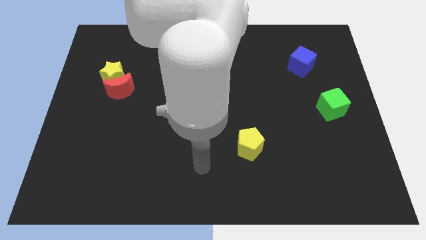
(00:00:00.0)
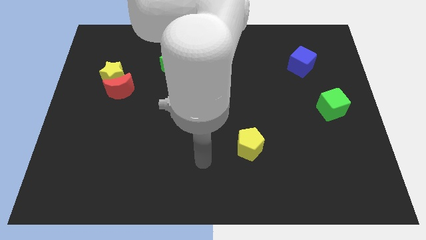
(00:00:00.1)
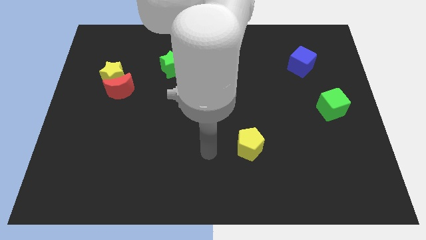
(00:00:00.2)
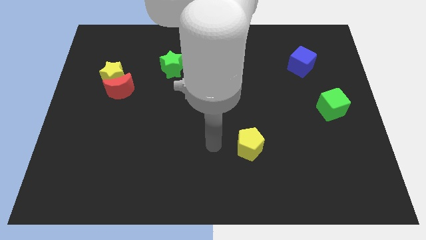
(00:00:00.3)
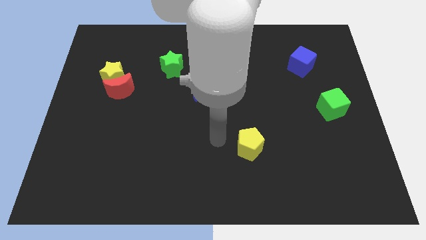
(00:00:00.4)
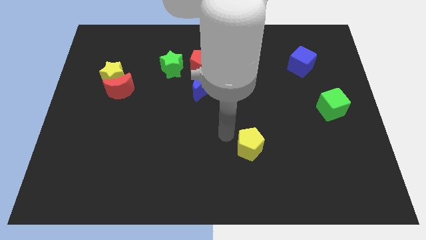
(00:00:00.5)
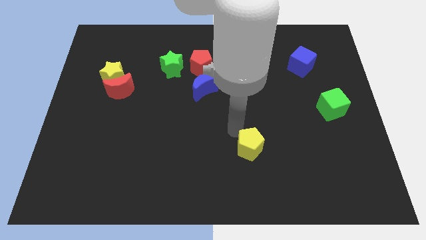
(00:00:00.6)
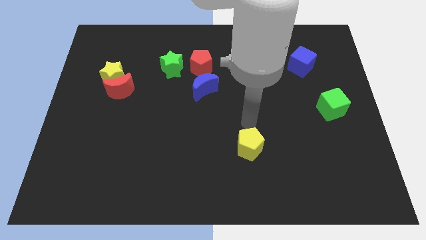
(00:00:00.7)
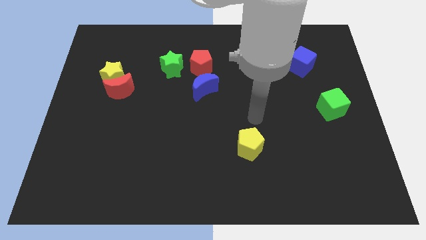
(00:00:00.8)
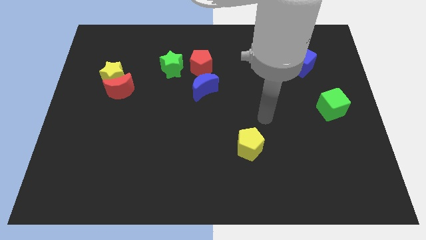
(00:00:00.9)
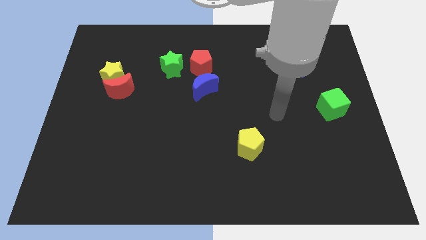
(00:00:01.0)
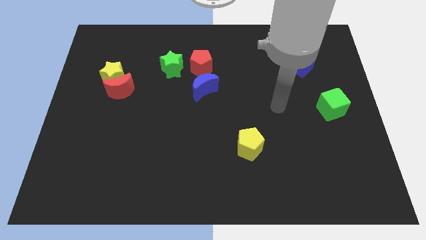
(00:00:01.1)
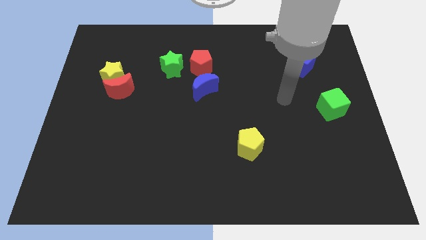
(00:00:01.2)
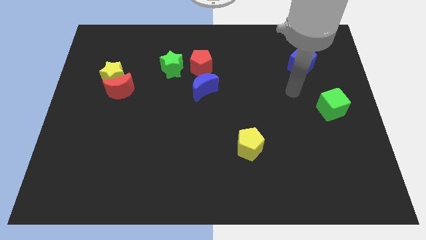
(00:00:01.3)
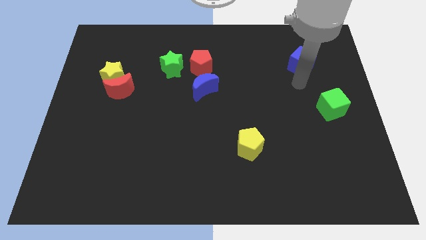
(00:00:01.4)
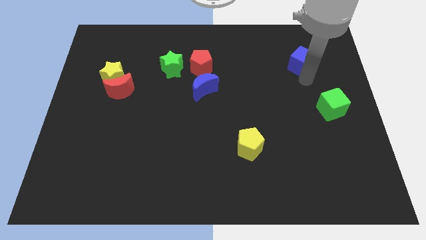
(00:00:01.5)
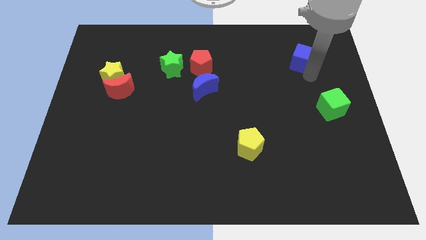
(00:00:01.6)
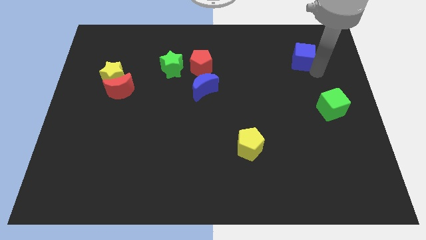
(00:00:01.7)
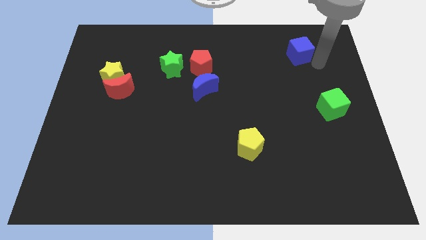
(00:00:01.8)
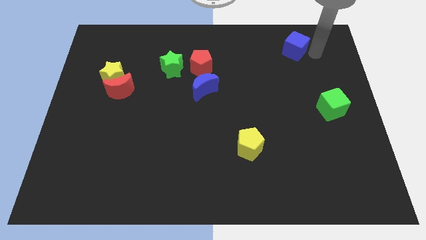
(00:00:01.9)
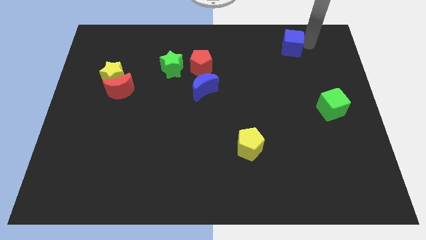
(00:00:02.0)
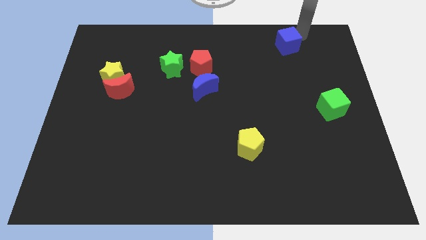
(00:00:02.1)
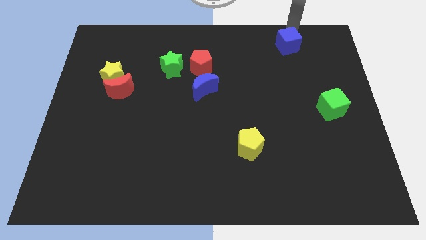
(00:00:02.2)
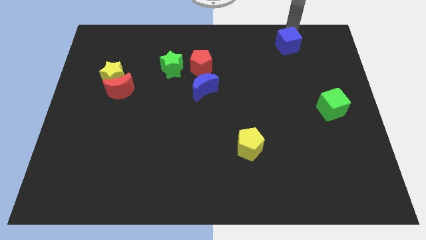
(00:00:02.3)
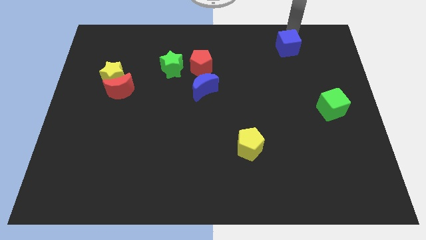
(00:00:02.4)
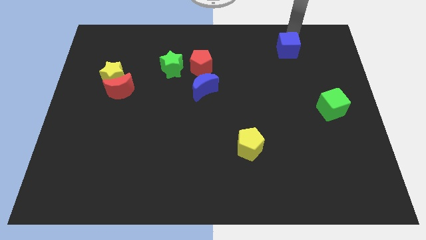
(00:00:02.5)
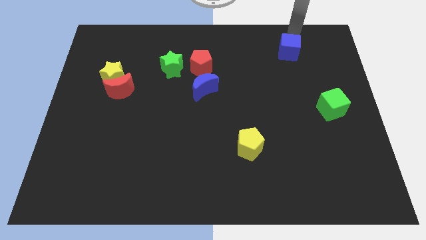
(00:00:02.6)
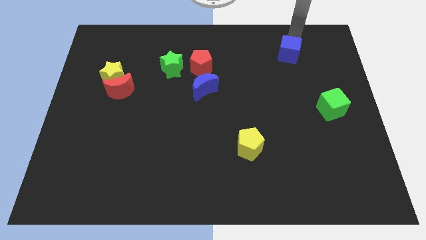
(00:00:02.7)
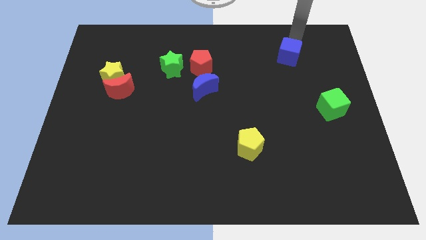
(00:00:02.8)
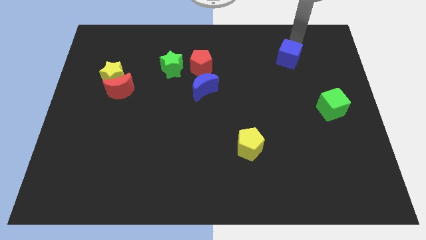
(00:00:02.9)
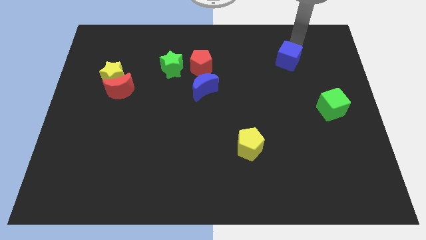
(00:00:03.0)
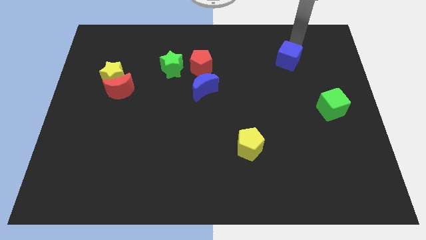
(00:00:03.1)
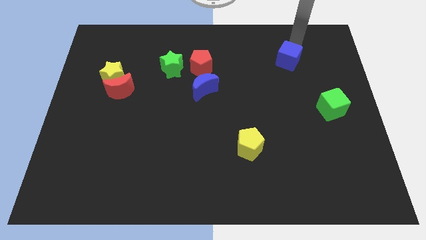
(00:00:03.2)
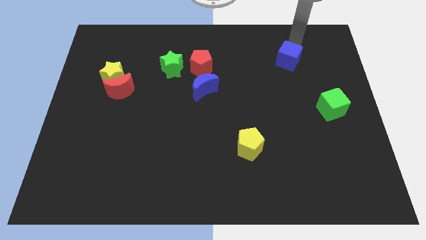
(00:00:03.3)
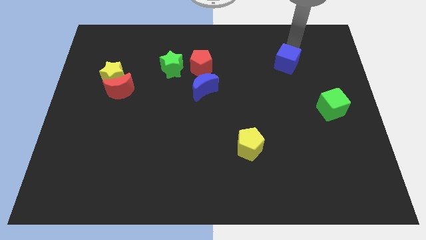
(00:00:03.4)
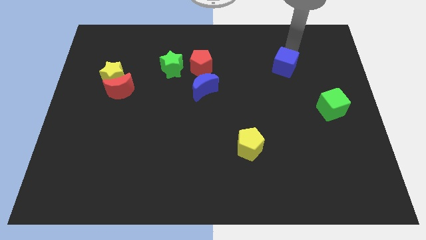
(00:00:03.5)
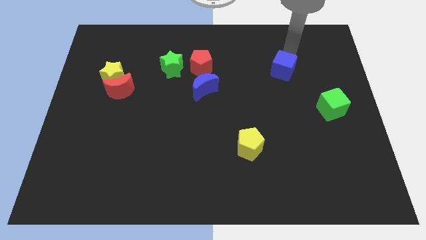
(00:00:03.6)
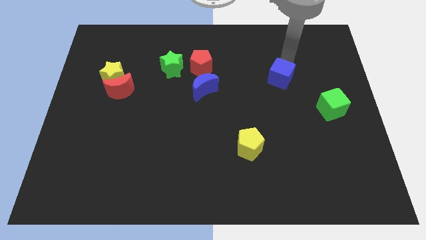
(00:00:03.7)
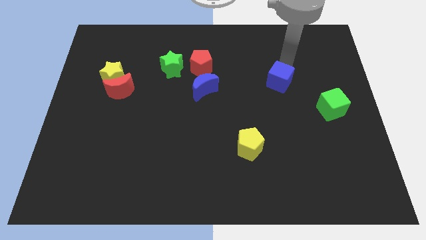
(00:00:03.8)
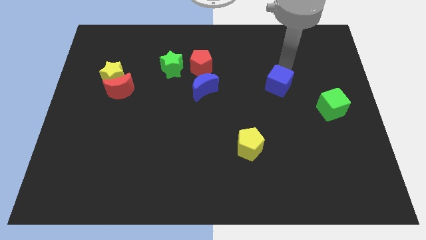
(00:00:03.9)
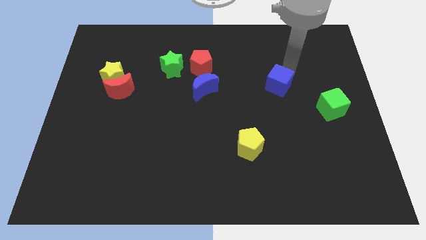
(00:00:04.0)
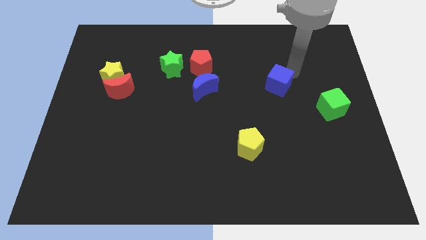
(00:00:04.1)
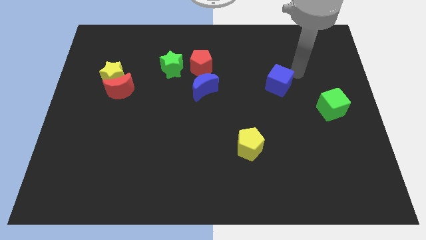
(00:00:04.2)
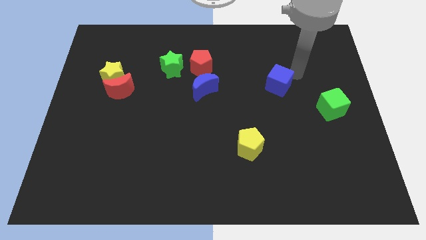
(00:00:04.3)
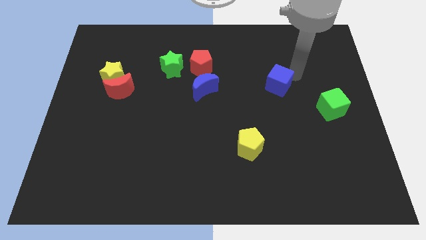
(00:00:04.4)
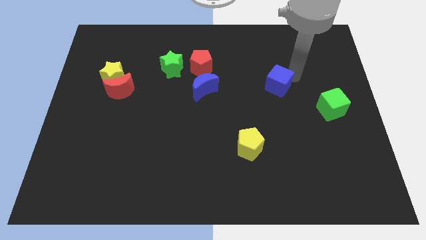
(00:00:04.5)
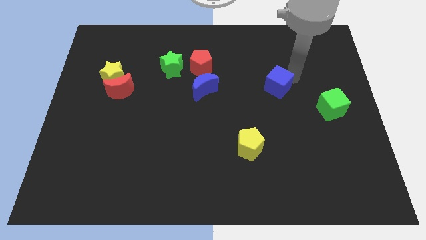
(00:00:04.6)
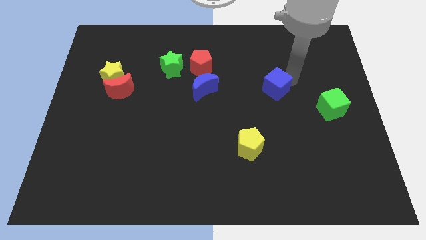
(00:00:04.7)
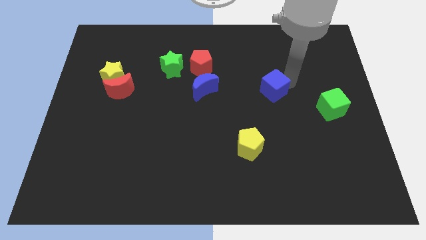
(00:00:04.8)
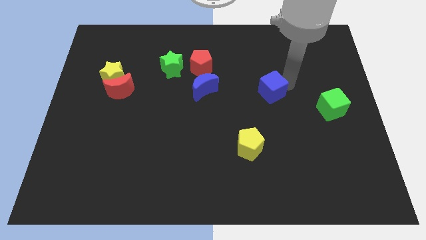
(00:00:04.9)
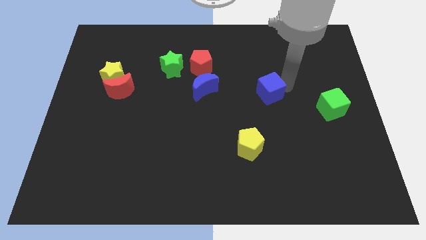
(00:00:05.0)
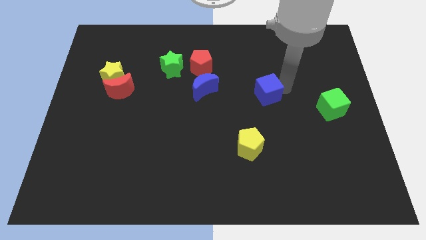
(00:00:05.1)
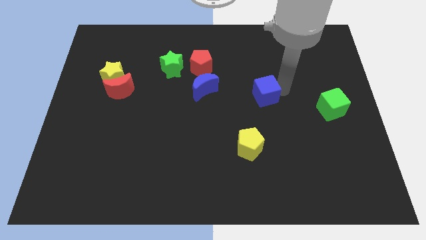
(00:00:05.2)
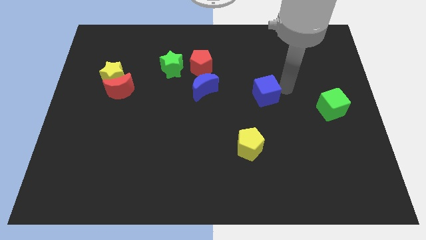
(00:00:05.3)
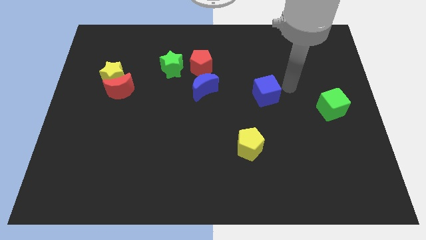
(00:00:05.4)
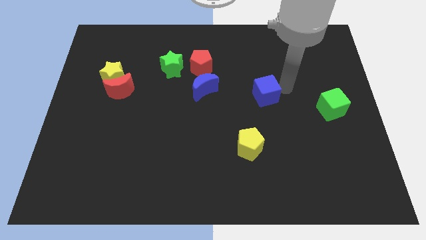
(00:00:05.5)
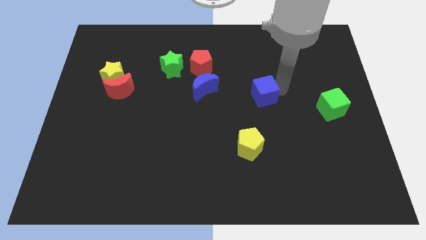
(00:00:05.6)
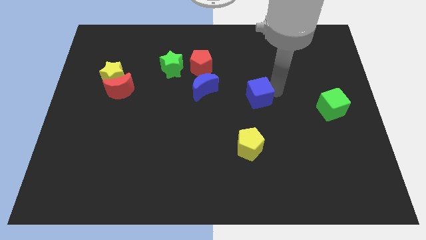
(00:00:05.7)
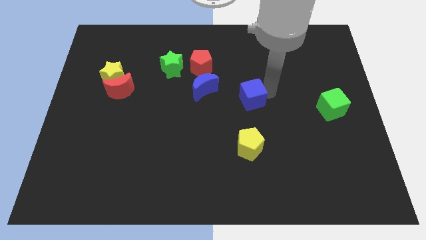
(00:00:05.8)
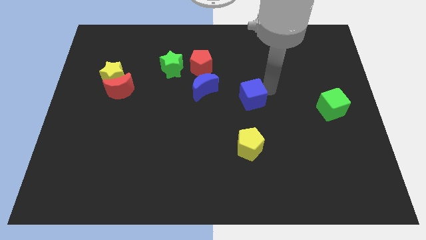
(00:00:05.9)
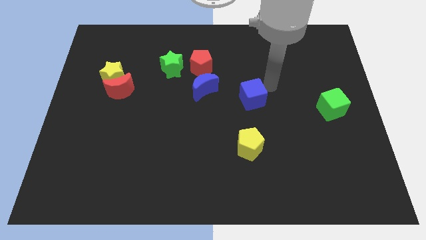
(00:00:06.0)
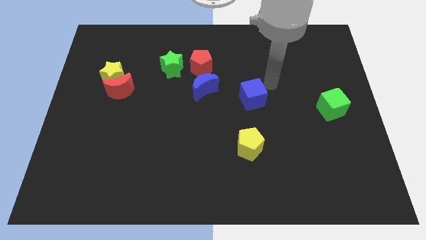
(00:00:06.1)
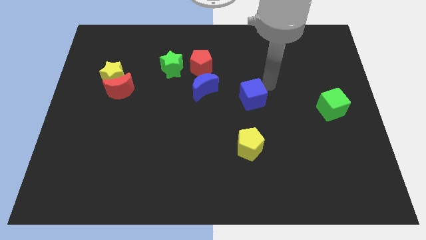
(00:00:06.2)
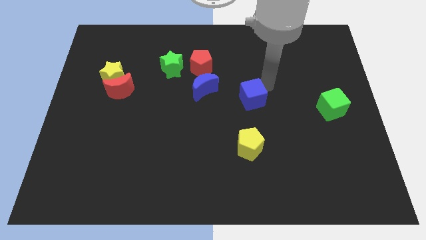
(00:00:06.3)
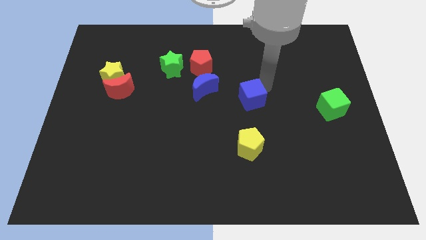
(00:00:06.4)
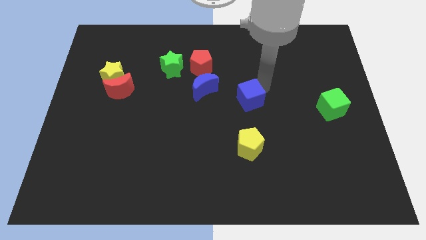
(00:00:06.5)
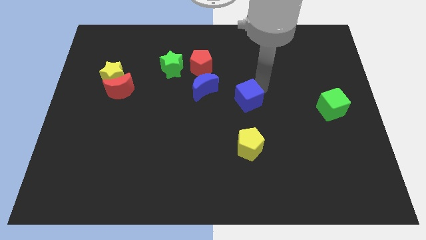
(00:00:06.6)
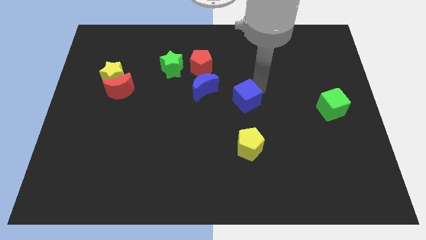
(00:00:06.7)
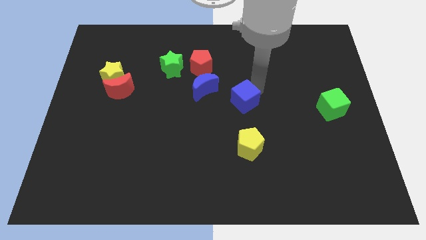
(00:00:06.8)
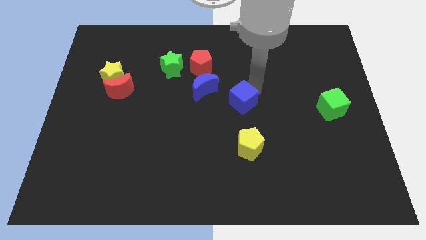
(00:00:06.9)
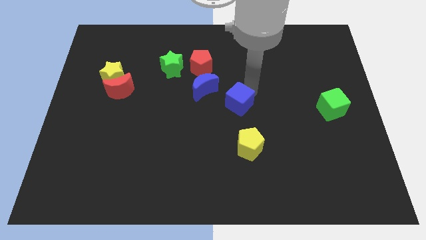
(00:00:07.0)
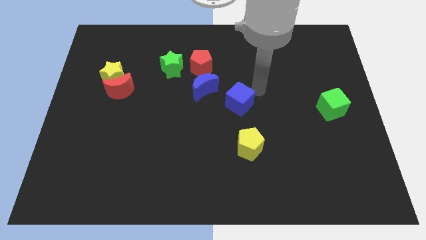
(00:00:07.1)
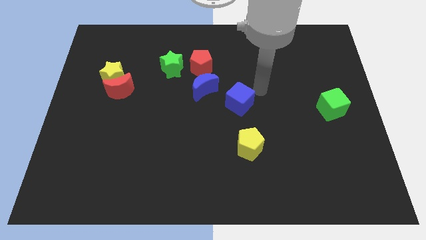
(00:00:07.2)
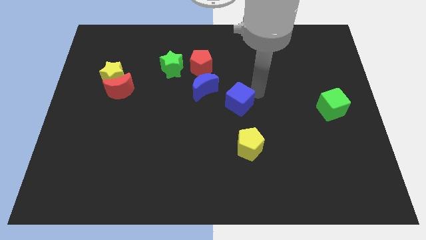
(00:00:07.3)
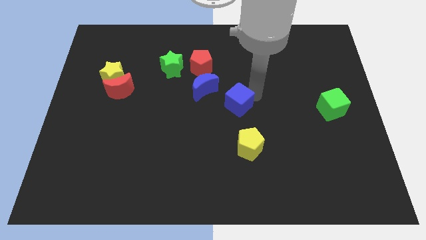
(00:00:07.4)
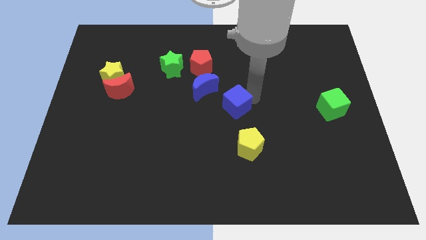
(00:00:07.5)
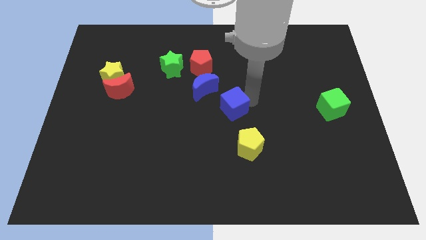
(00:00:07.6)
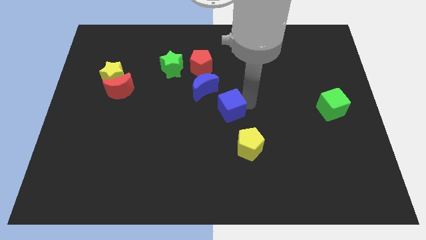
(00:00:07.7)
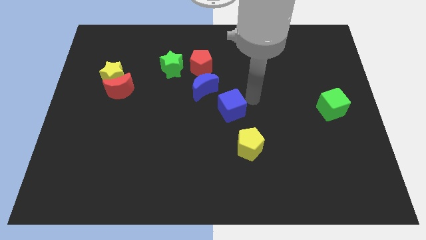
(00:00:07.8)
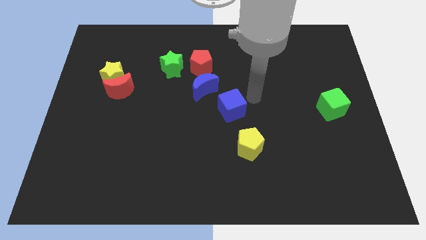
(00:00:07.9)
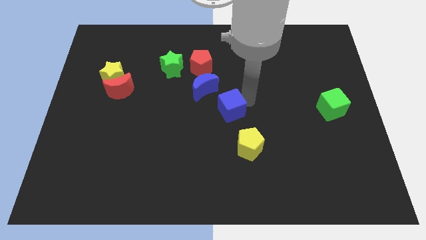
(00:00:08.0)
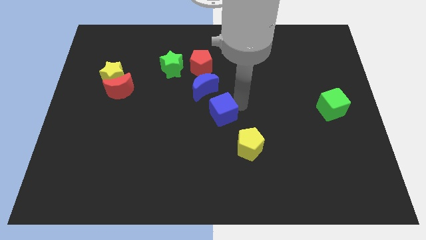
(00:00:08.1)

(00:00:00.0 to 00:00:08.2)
move the blue cube to the bottom of the blue moon
